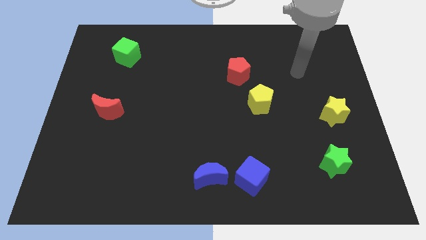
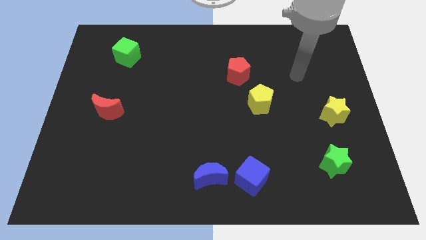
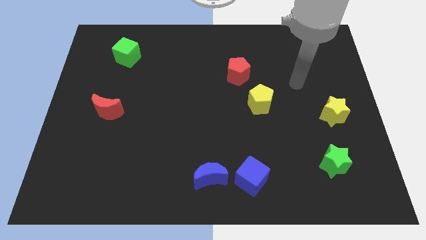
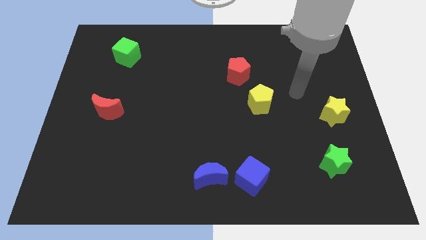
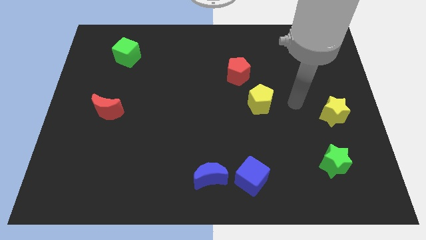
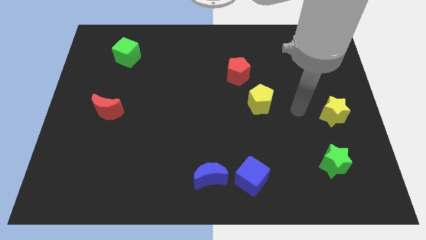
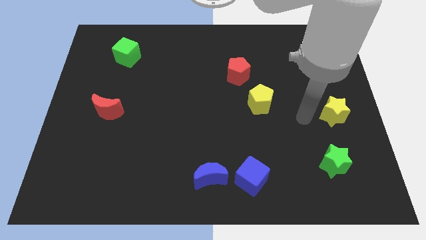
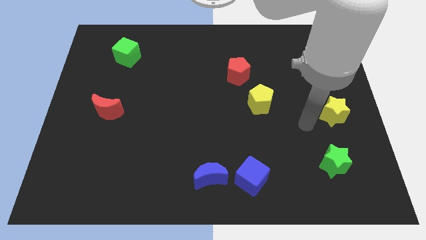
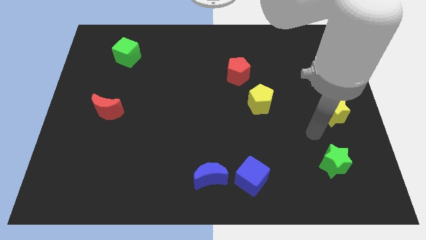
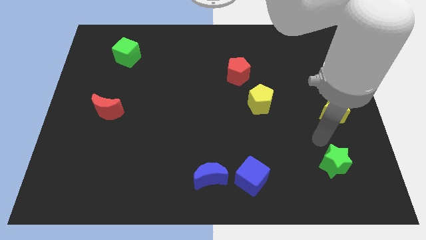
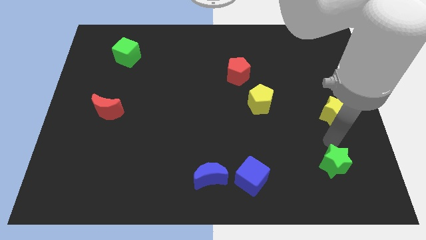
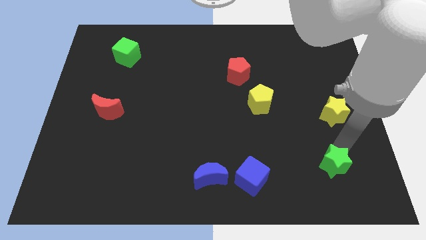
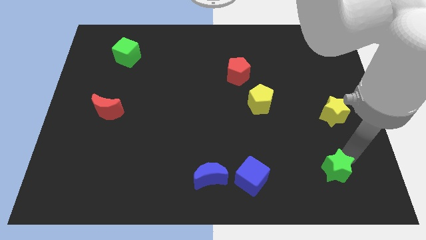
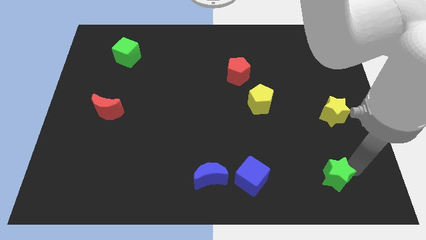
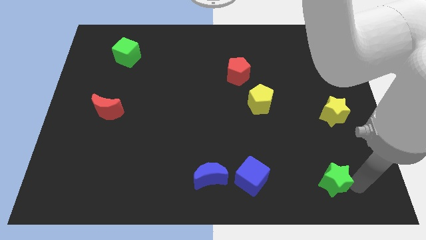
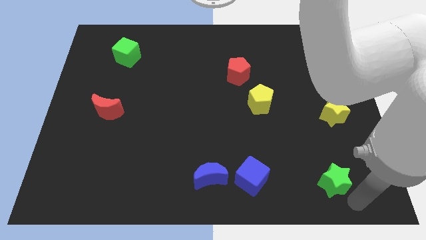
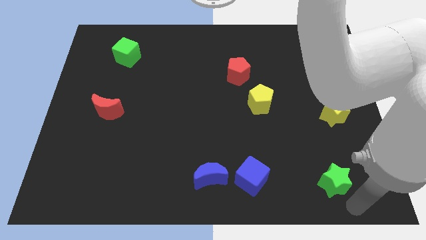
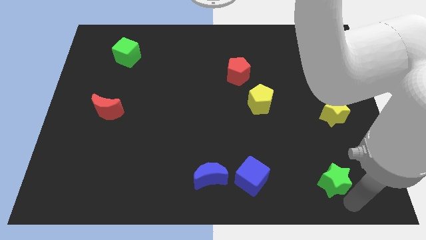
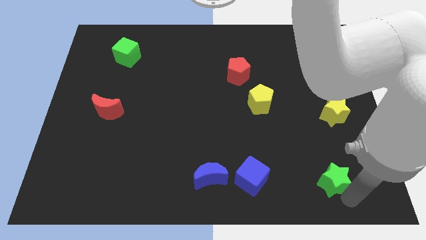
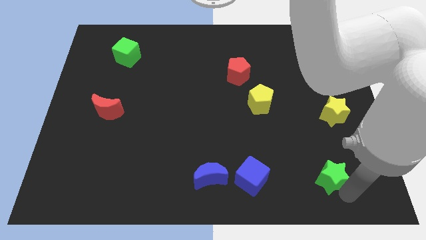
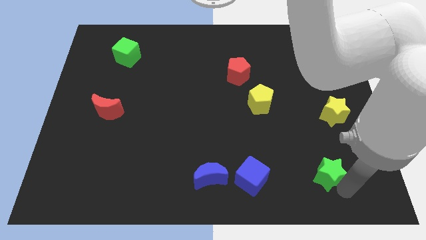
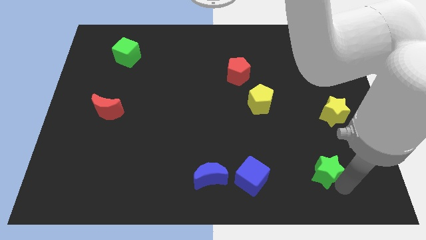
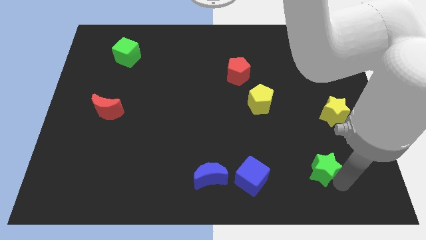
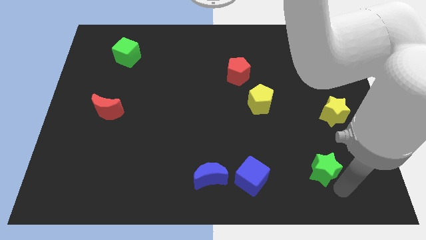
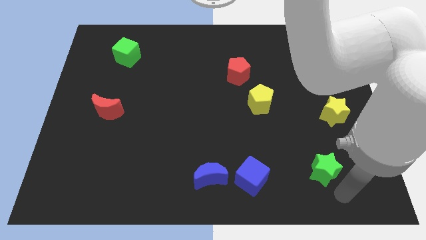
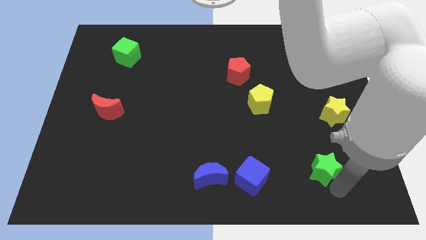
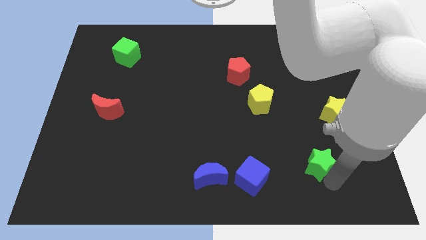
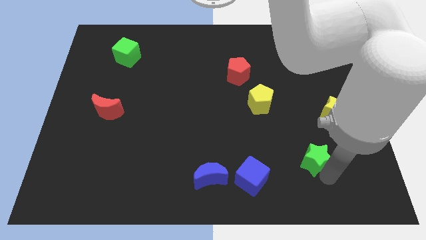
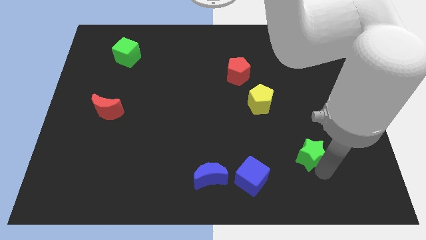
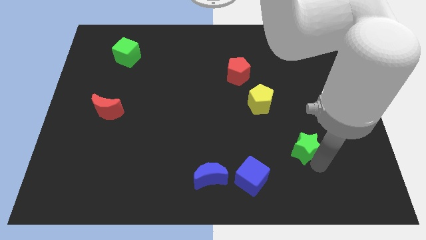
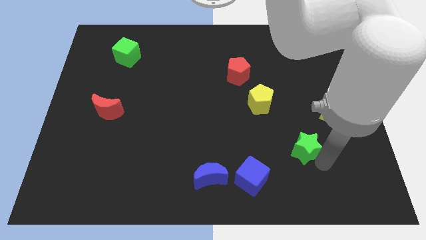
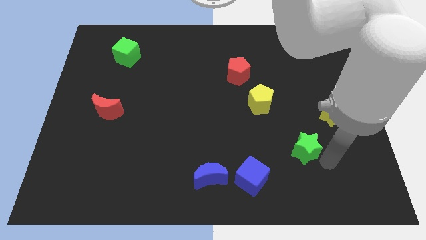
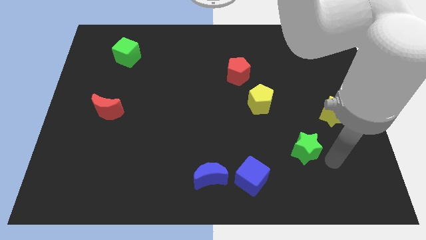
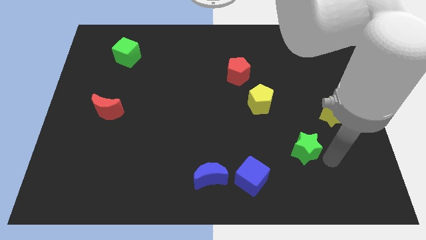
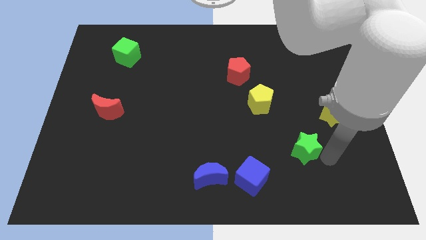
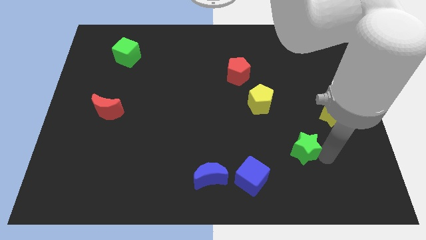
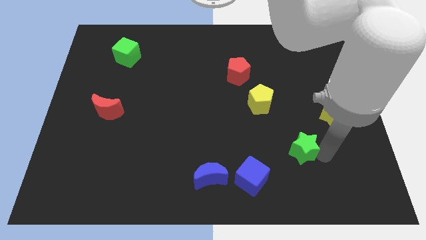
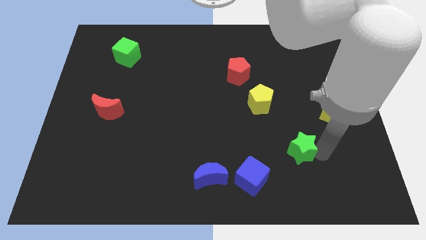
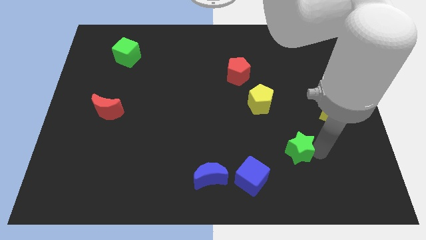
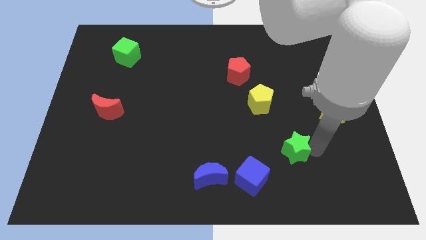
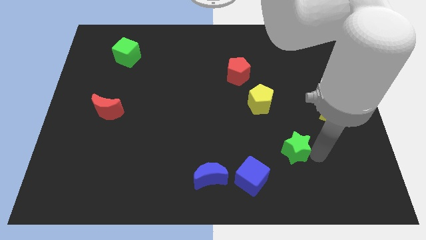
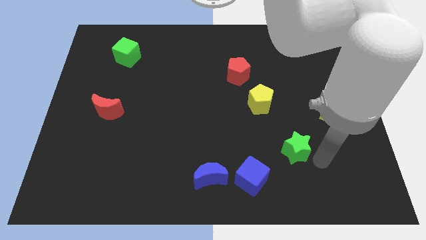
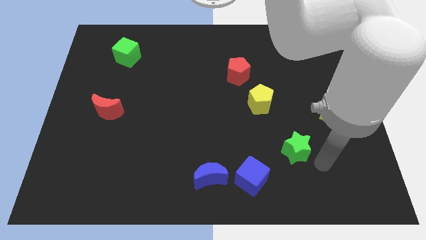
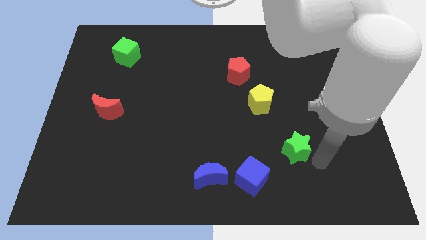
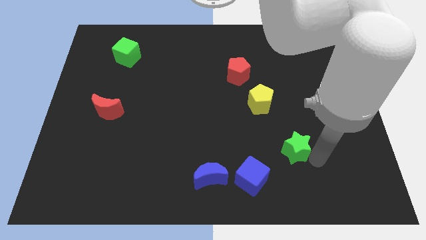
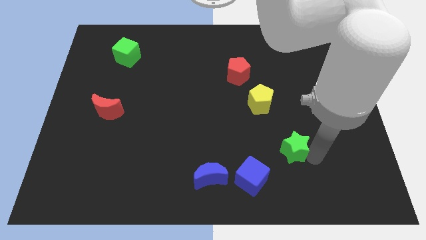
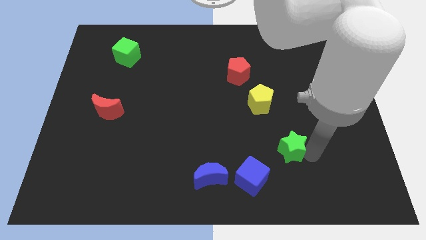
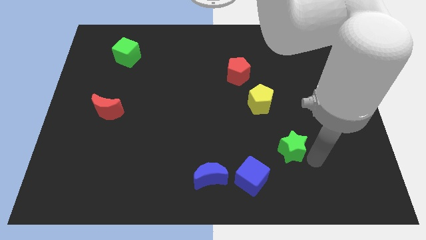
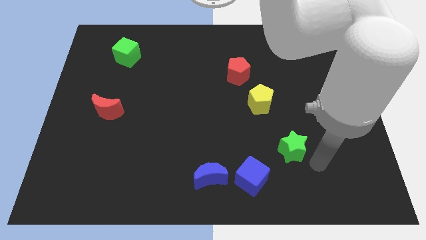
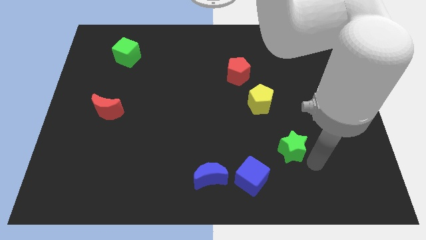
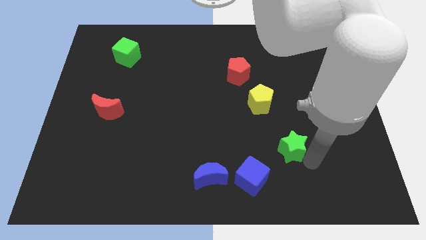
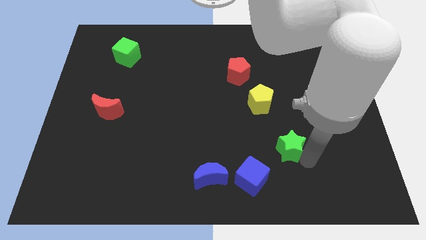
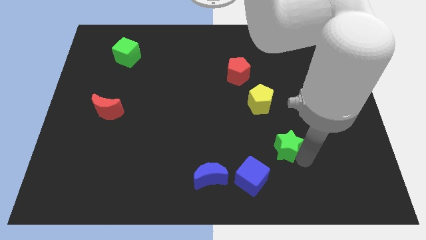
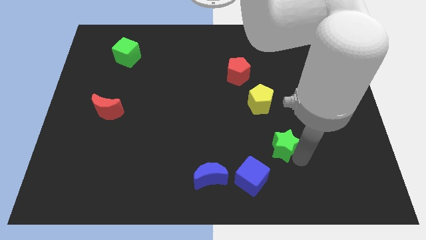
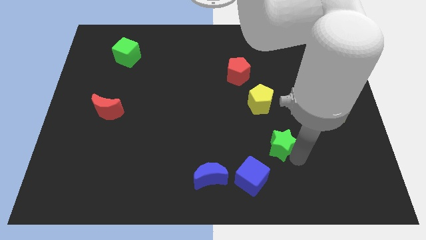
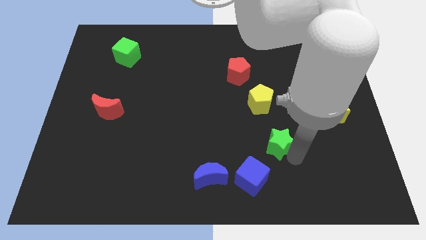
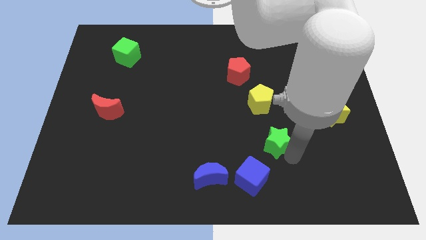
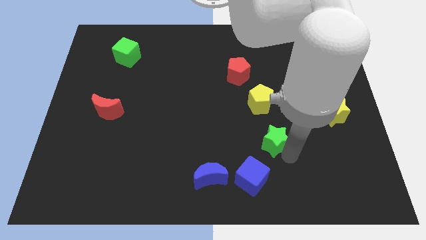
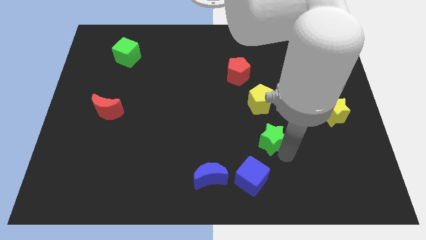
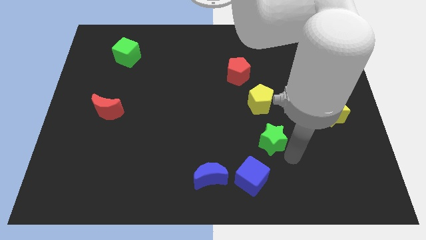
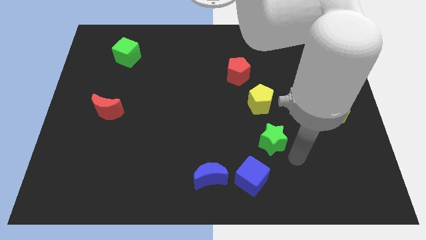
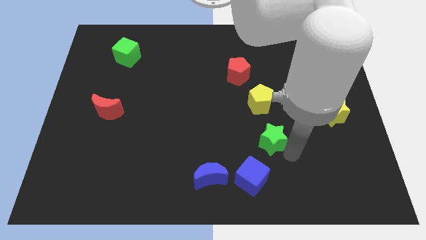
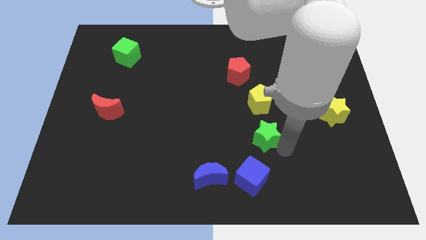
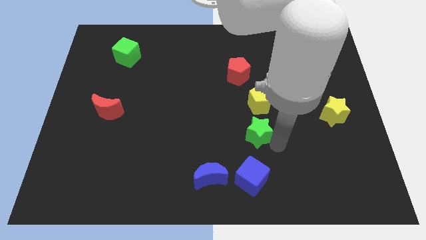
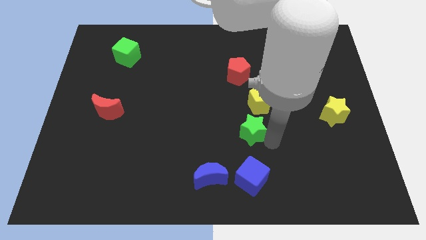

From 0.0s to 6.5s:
slide the green star to the middle of the board
